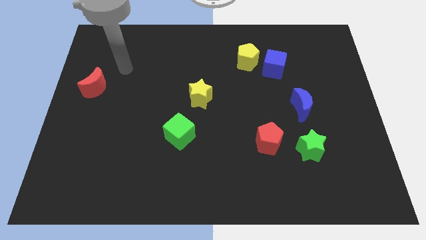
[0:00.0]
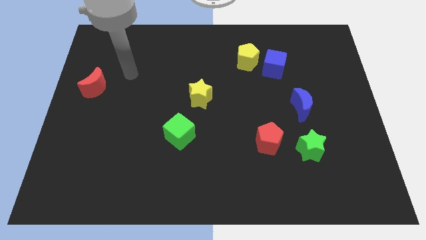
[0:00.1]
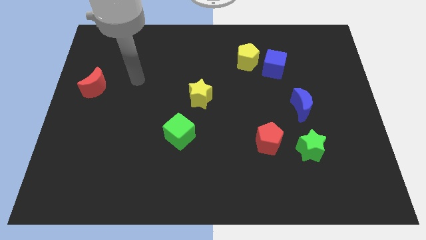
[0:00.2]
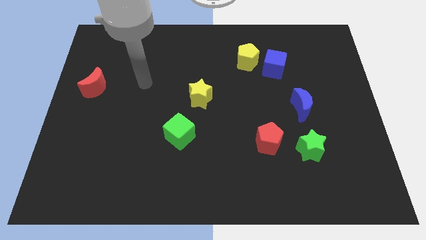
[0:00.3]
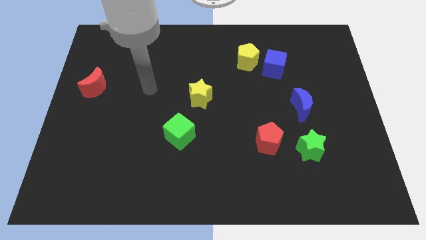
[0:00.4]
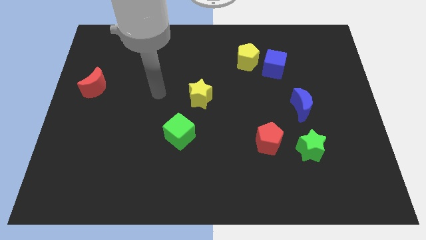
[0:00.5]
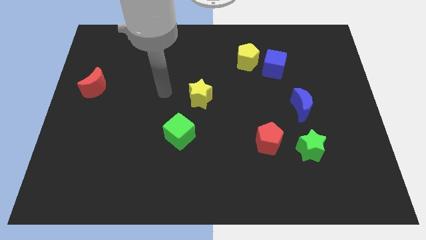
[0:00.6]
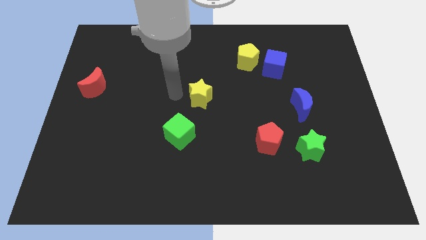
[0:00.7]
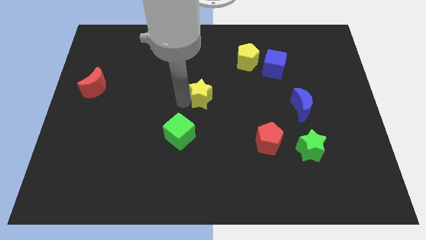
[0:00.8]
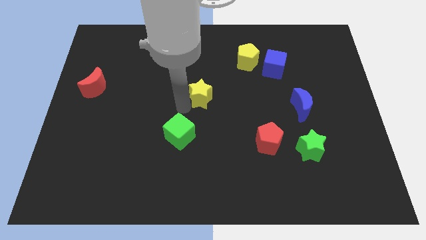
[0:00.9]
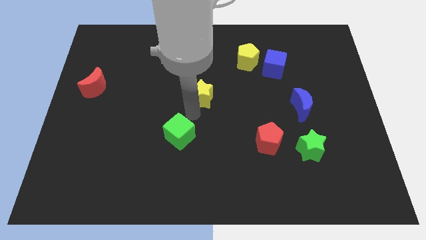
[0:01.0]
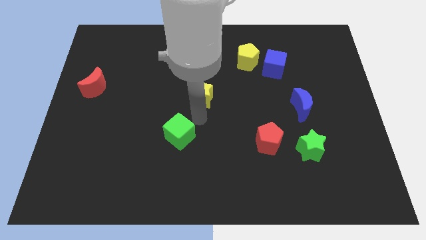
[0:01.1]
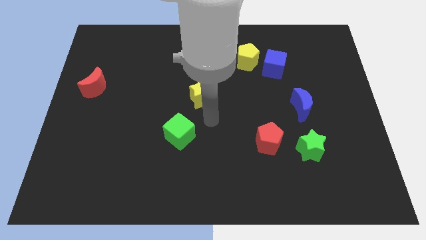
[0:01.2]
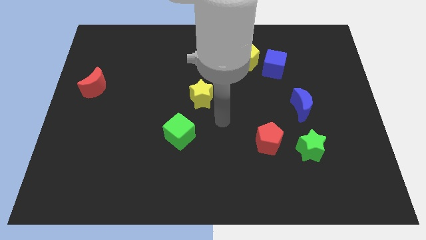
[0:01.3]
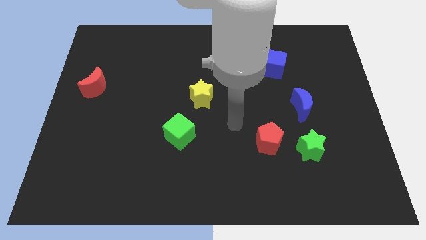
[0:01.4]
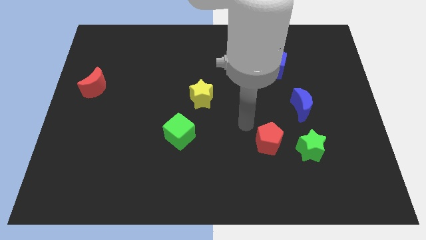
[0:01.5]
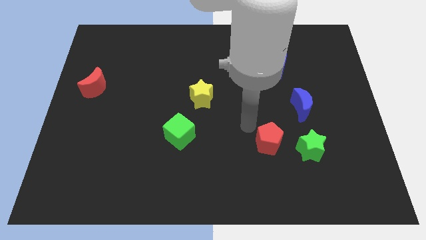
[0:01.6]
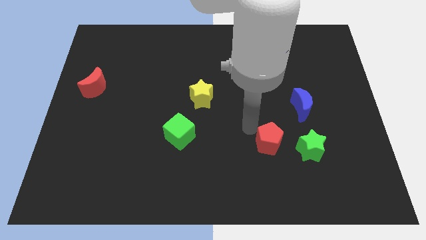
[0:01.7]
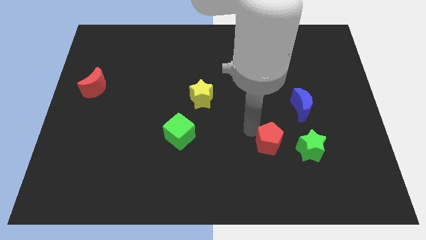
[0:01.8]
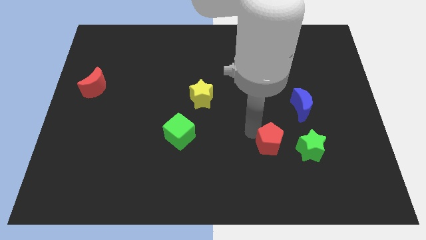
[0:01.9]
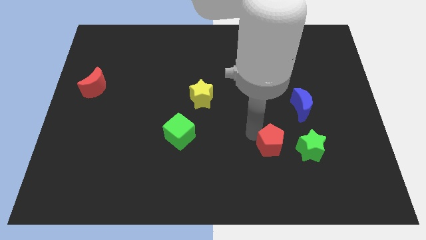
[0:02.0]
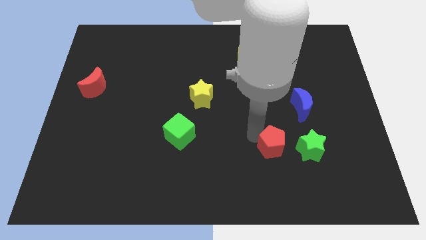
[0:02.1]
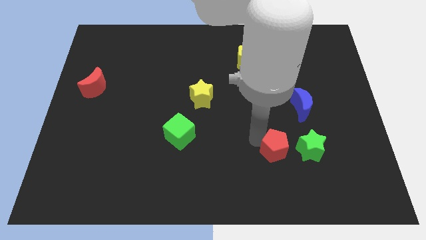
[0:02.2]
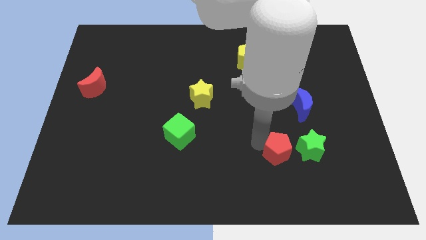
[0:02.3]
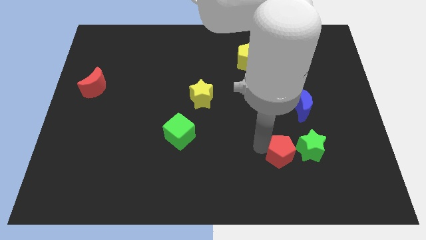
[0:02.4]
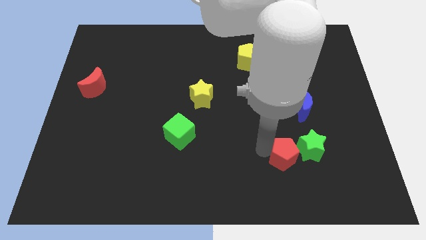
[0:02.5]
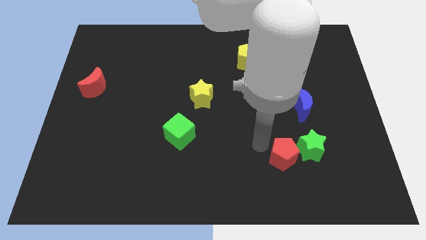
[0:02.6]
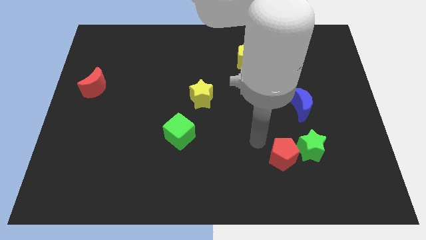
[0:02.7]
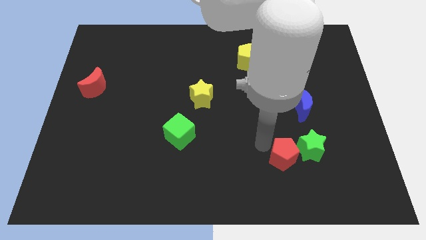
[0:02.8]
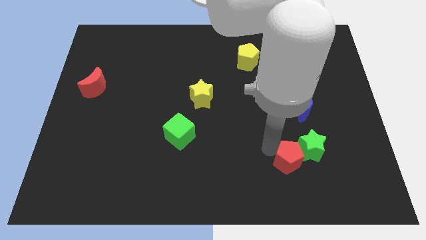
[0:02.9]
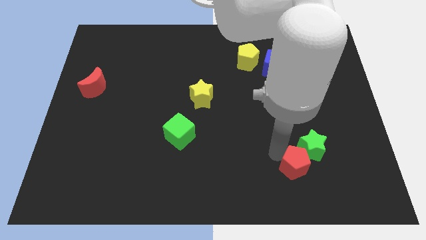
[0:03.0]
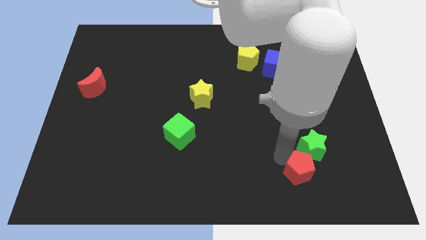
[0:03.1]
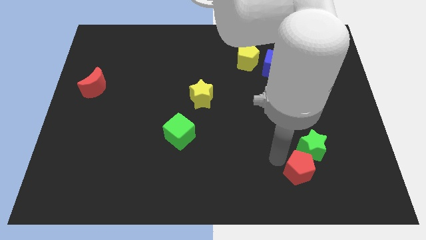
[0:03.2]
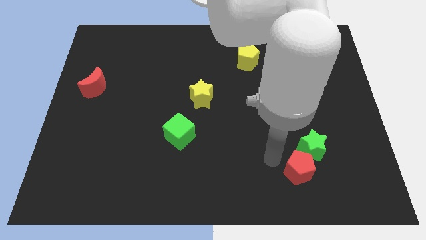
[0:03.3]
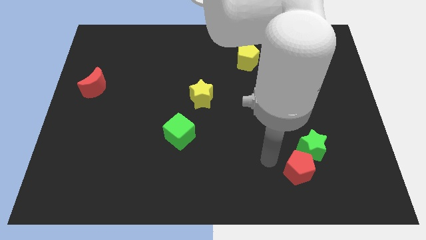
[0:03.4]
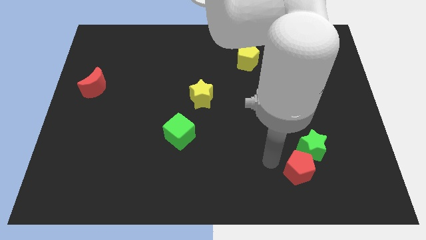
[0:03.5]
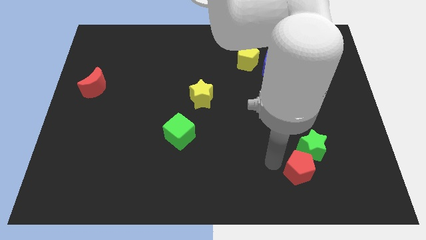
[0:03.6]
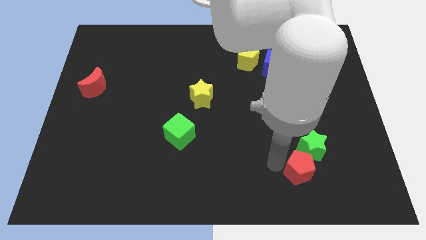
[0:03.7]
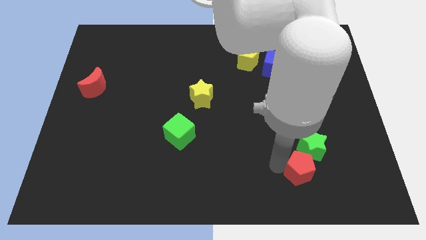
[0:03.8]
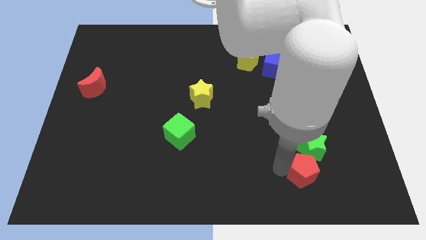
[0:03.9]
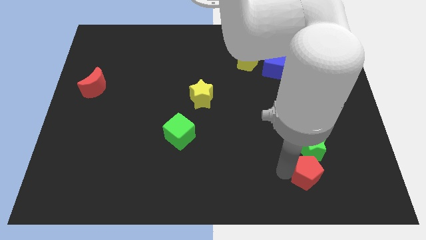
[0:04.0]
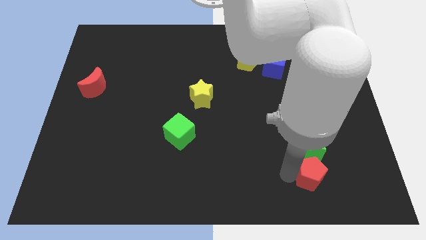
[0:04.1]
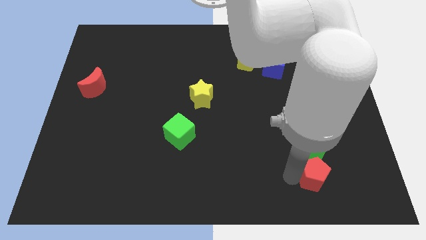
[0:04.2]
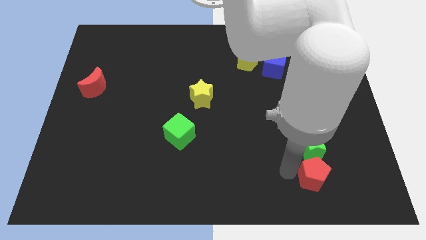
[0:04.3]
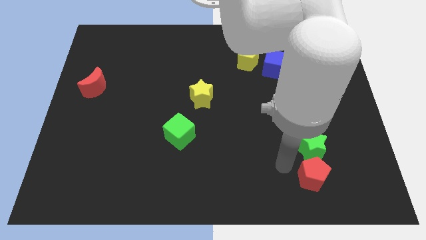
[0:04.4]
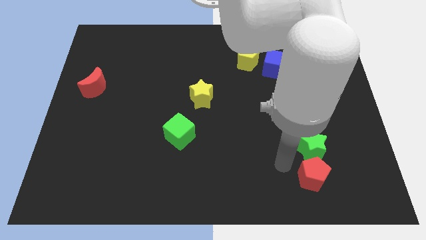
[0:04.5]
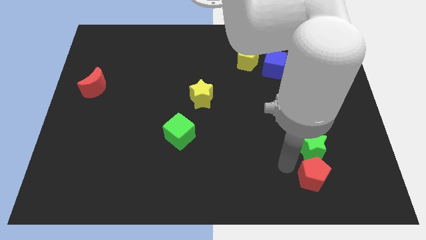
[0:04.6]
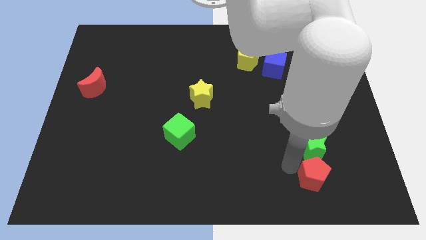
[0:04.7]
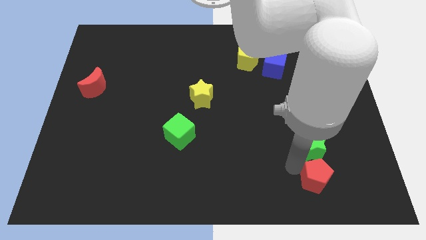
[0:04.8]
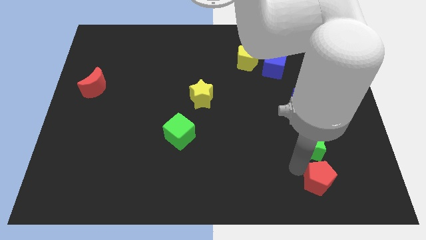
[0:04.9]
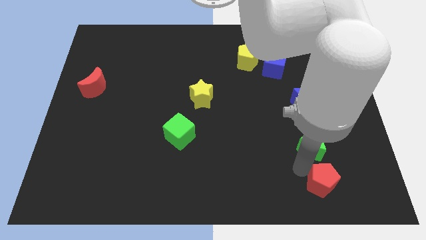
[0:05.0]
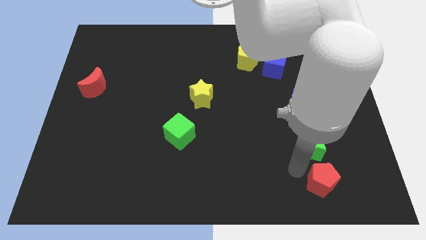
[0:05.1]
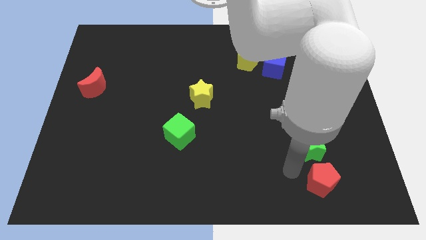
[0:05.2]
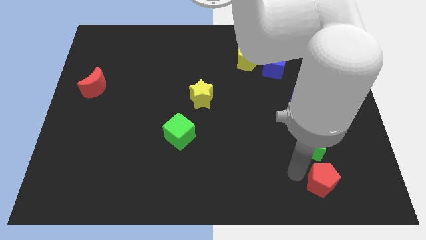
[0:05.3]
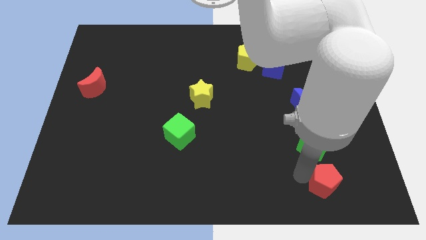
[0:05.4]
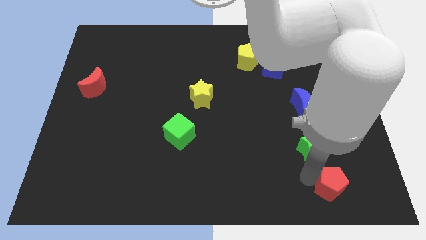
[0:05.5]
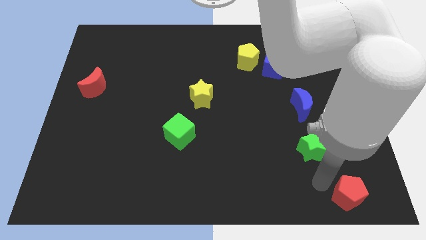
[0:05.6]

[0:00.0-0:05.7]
slide the red pentagon to the bottom right
